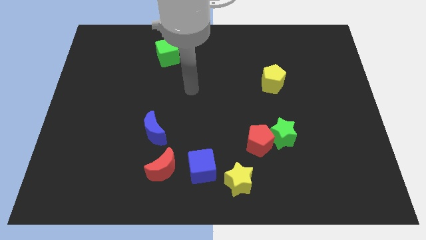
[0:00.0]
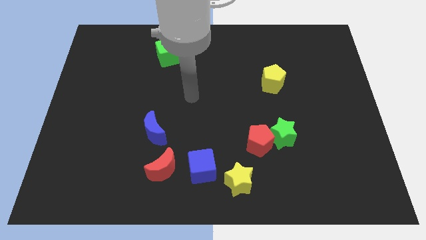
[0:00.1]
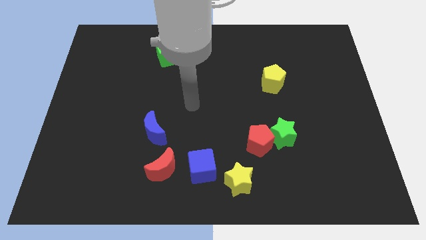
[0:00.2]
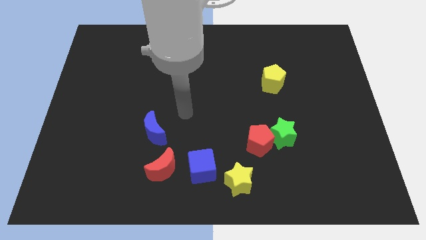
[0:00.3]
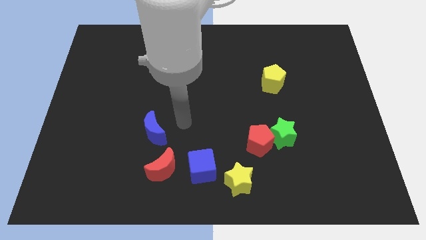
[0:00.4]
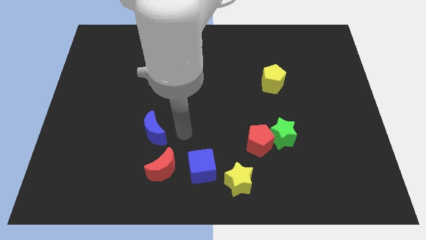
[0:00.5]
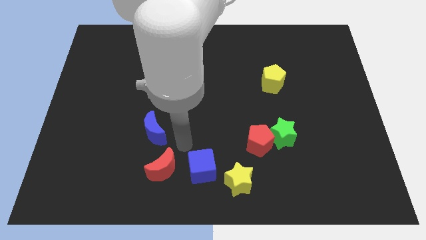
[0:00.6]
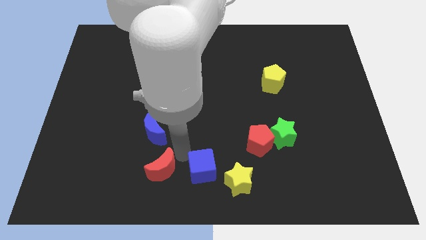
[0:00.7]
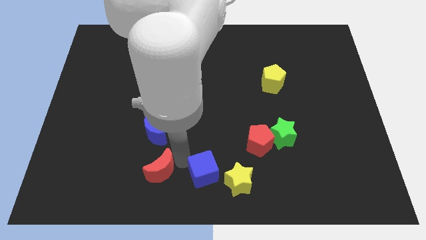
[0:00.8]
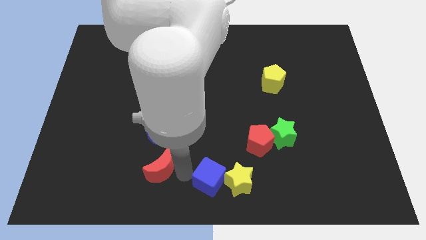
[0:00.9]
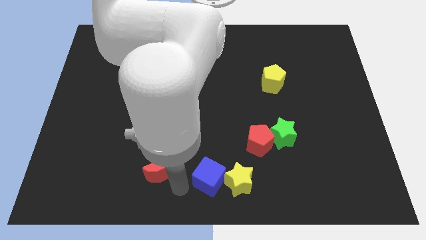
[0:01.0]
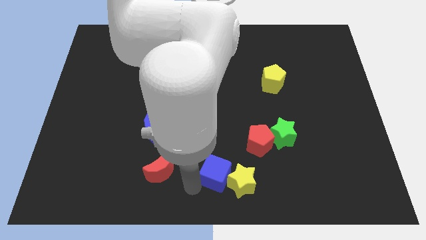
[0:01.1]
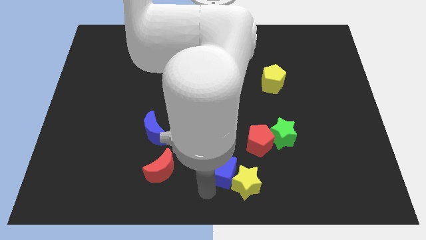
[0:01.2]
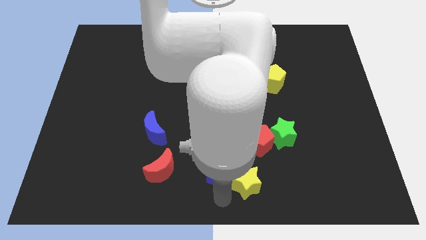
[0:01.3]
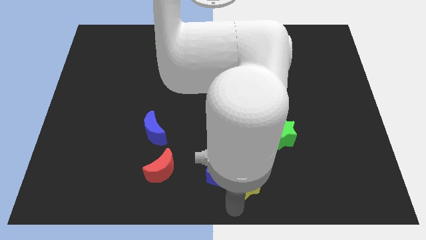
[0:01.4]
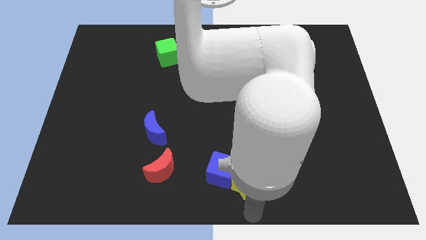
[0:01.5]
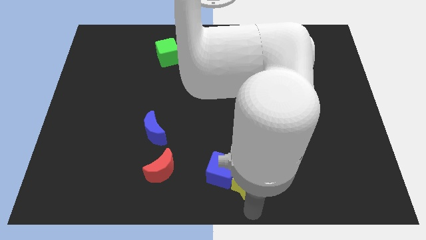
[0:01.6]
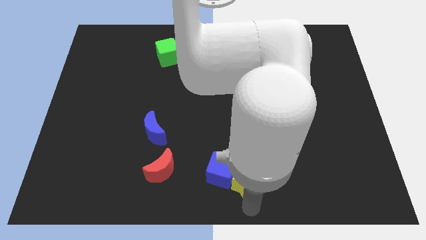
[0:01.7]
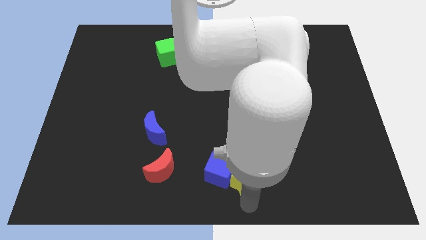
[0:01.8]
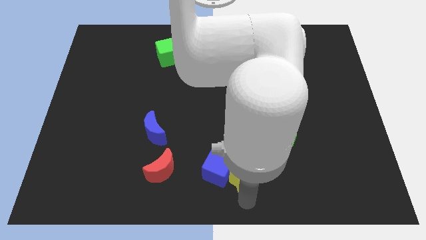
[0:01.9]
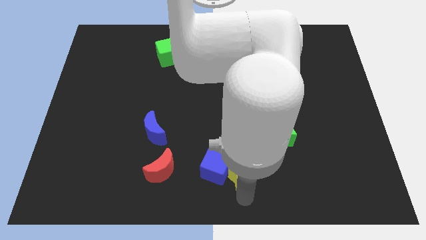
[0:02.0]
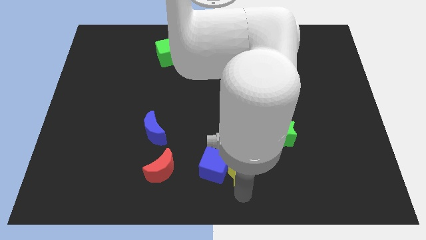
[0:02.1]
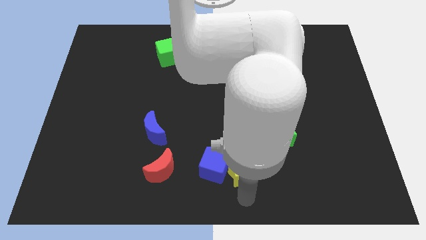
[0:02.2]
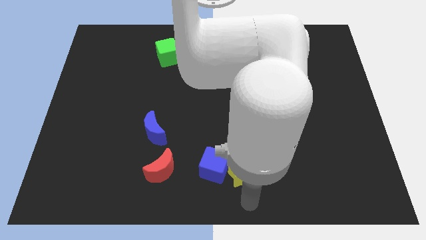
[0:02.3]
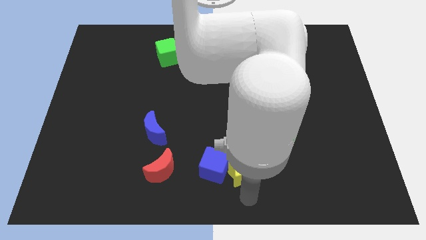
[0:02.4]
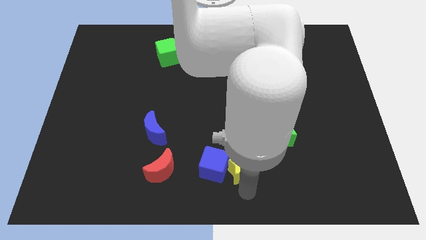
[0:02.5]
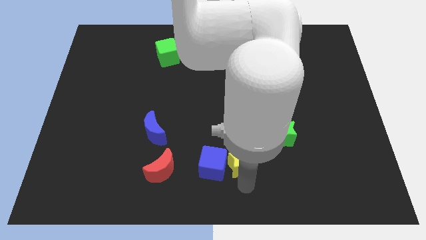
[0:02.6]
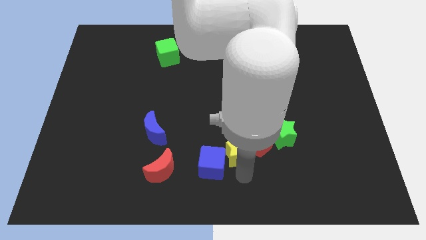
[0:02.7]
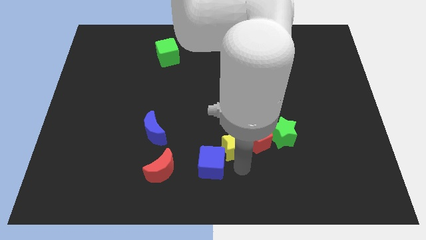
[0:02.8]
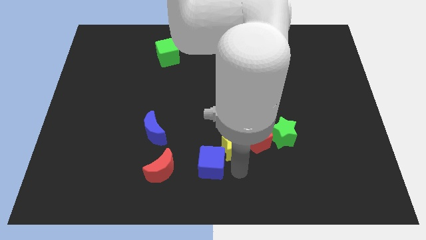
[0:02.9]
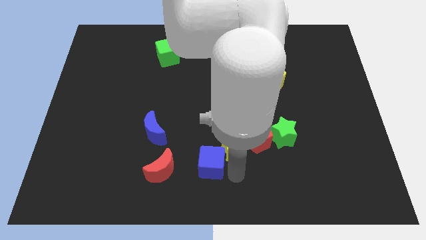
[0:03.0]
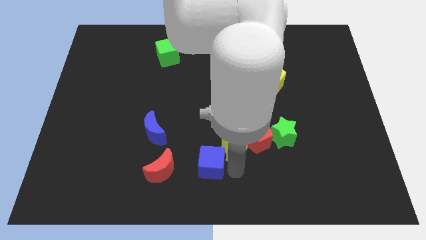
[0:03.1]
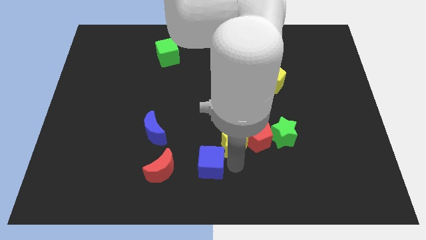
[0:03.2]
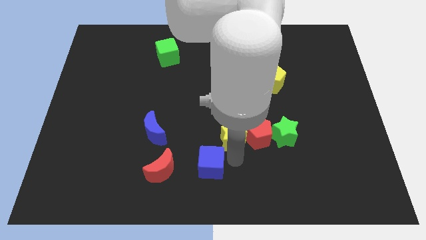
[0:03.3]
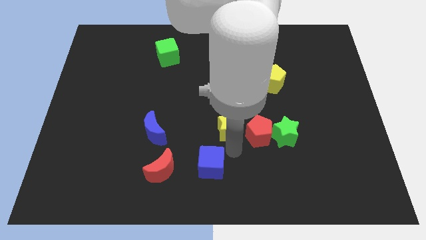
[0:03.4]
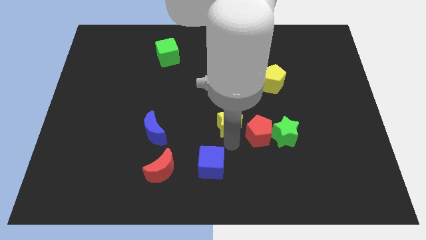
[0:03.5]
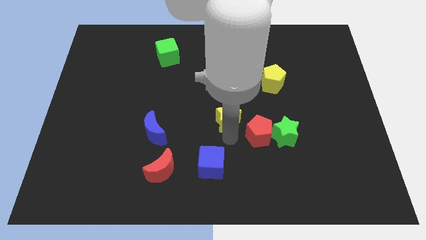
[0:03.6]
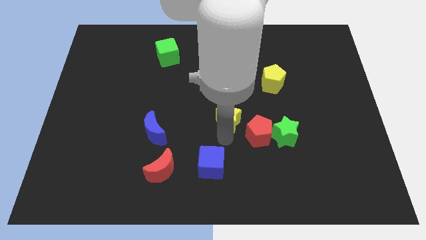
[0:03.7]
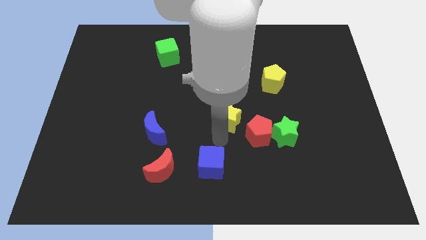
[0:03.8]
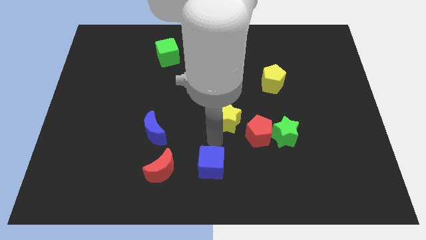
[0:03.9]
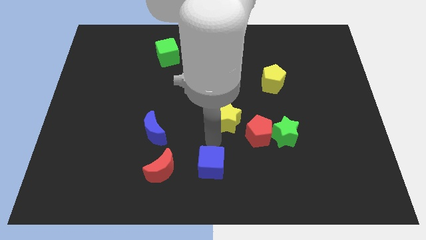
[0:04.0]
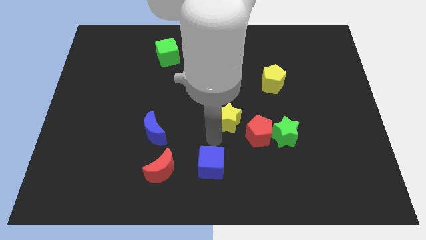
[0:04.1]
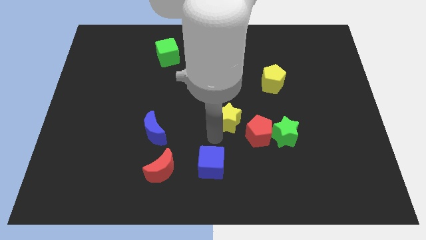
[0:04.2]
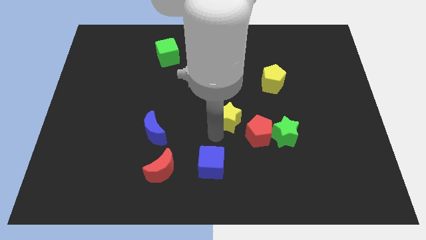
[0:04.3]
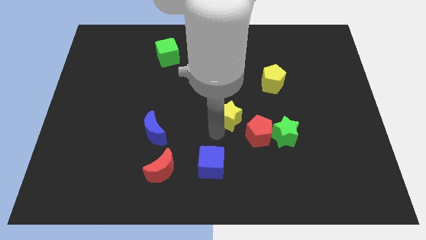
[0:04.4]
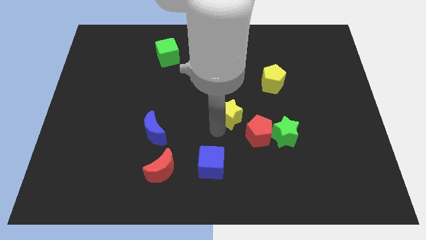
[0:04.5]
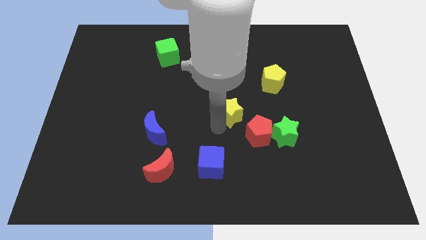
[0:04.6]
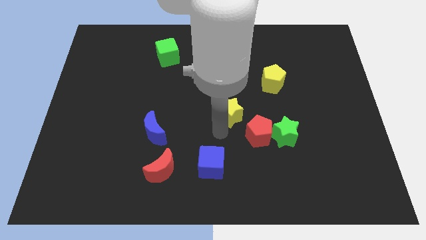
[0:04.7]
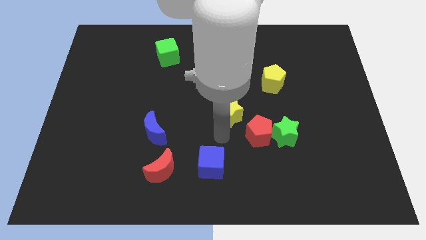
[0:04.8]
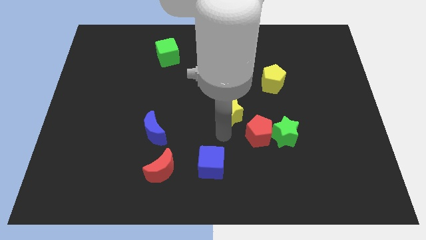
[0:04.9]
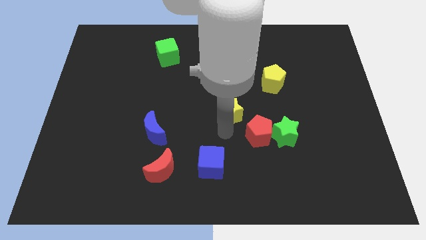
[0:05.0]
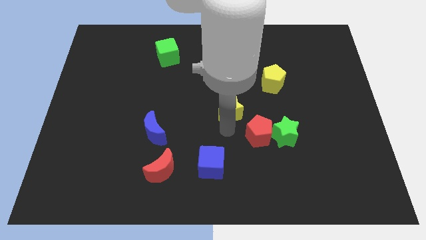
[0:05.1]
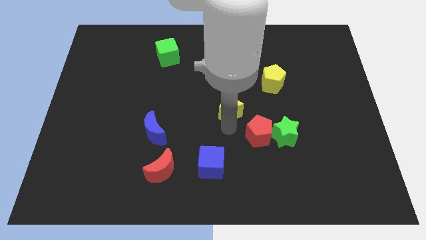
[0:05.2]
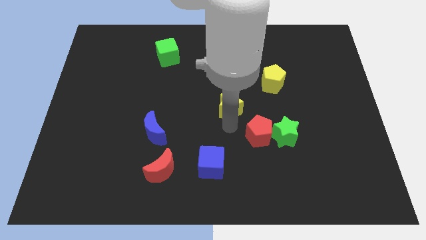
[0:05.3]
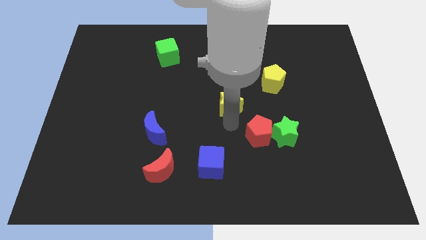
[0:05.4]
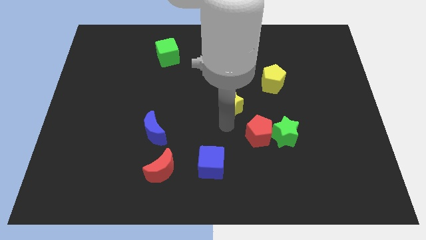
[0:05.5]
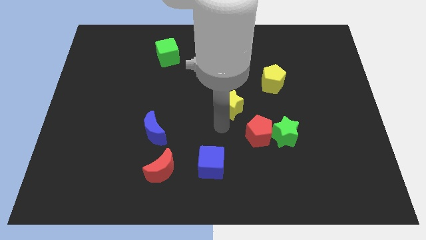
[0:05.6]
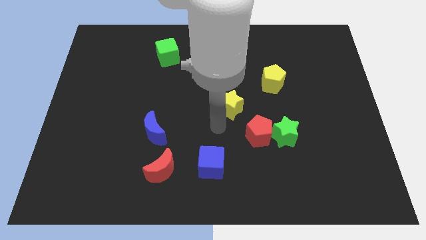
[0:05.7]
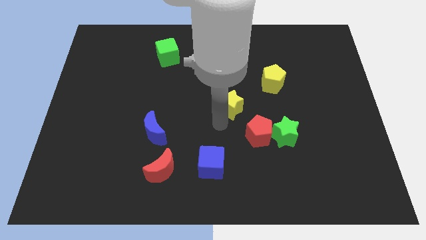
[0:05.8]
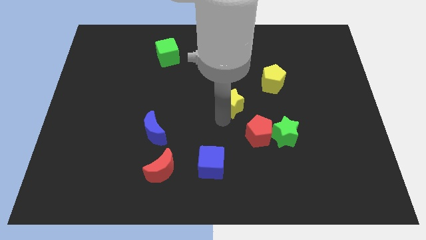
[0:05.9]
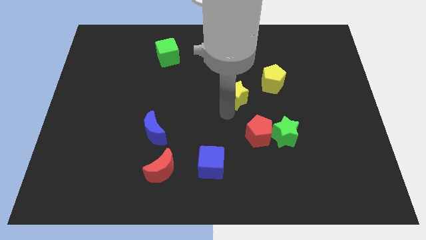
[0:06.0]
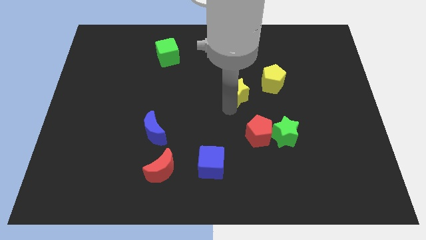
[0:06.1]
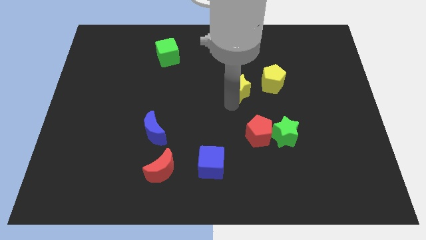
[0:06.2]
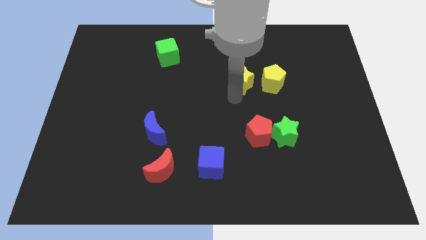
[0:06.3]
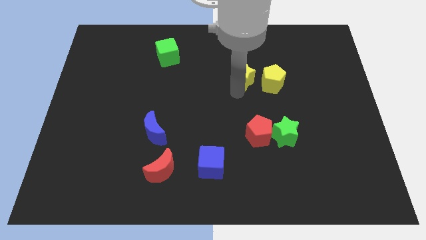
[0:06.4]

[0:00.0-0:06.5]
put the yellow star diagonally up and to the left of the yellow pentagon

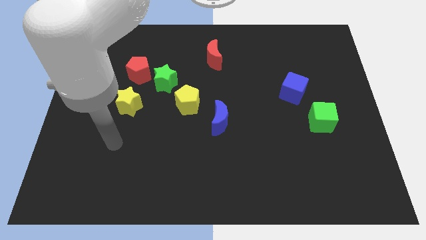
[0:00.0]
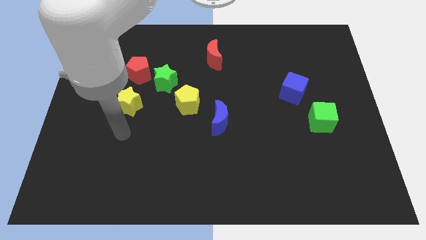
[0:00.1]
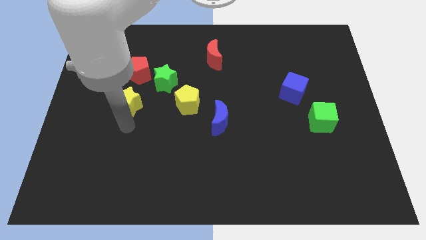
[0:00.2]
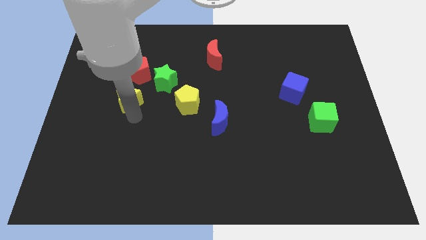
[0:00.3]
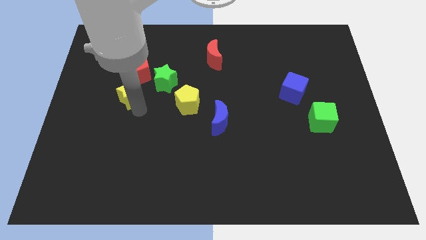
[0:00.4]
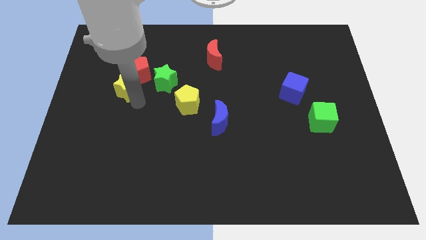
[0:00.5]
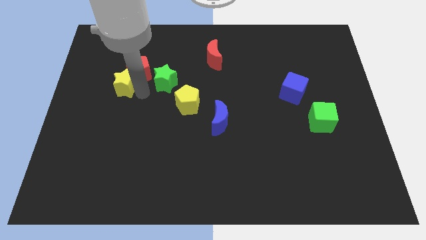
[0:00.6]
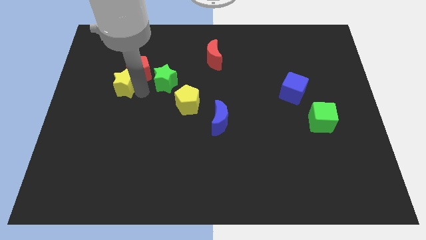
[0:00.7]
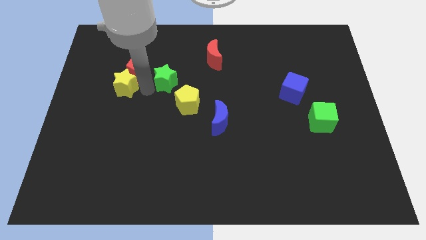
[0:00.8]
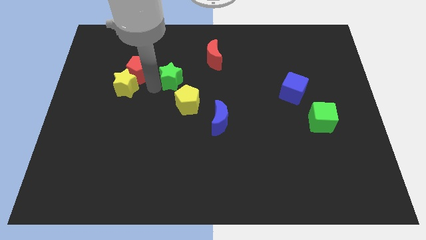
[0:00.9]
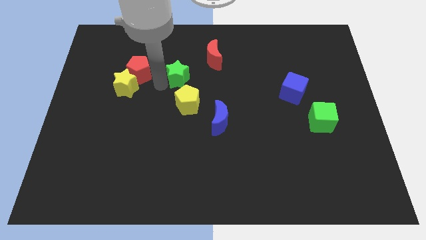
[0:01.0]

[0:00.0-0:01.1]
slide the green star diagonally down and to the left of the red moon
